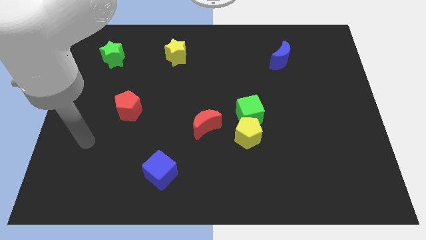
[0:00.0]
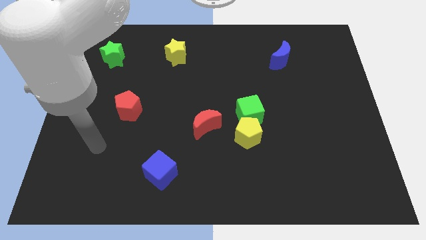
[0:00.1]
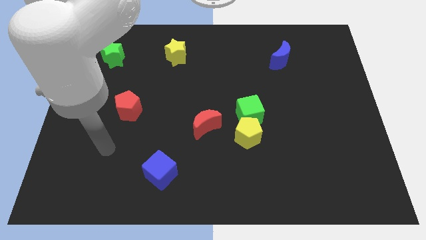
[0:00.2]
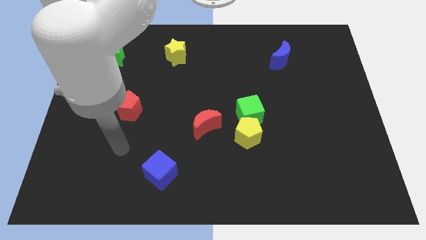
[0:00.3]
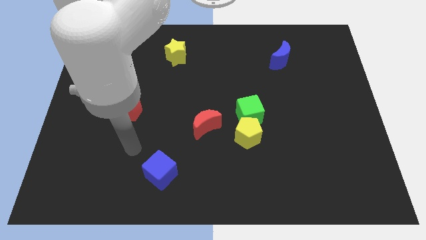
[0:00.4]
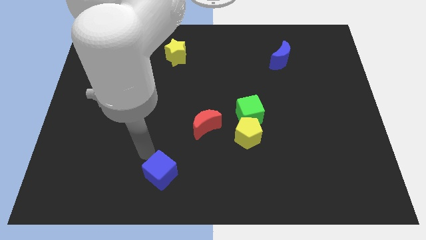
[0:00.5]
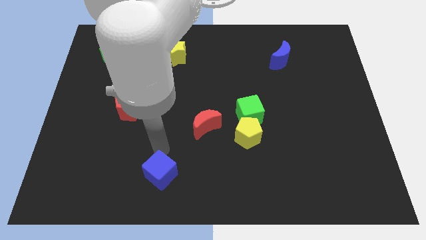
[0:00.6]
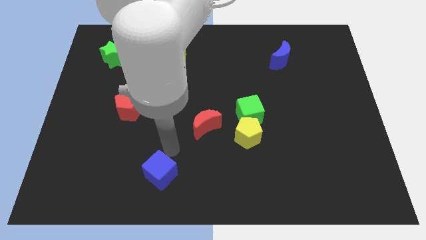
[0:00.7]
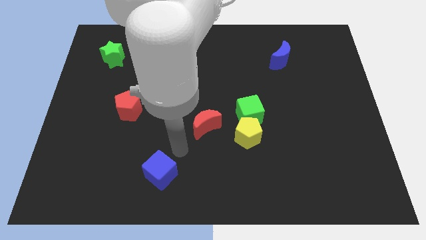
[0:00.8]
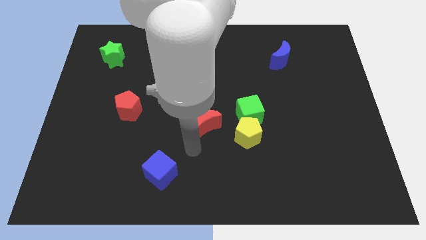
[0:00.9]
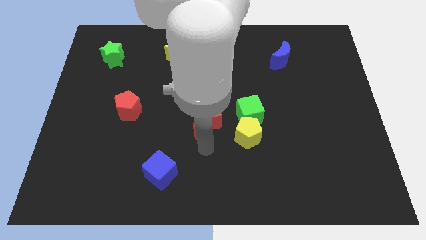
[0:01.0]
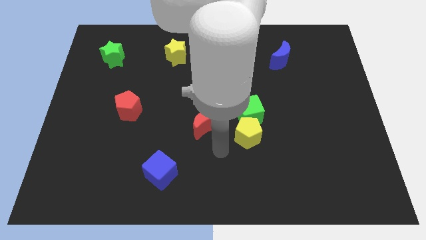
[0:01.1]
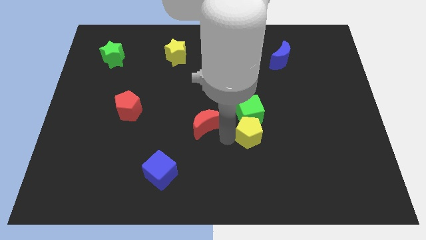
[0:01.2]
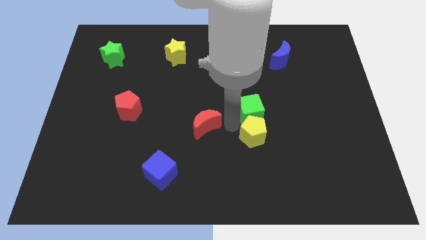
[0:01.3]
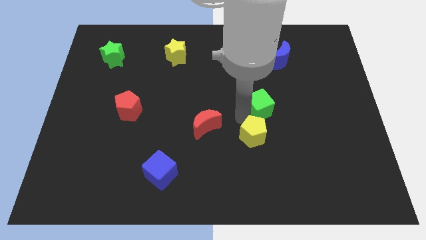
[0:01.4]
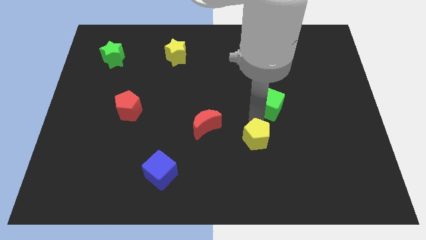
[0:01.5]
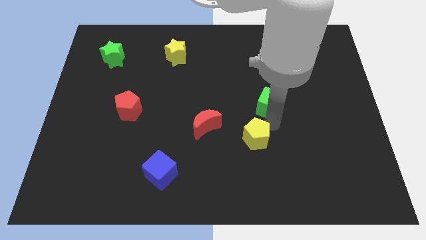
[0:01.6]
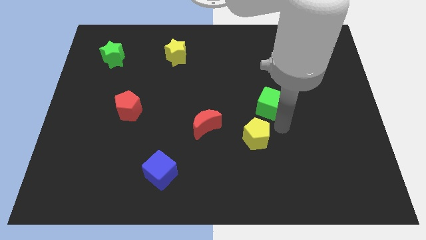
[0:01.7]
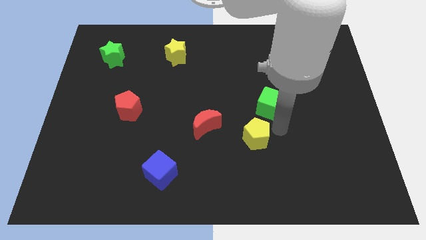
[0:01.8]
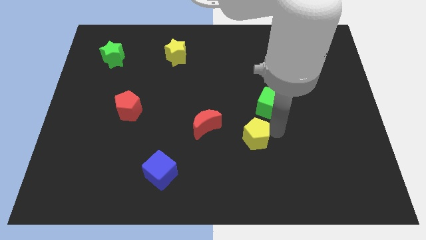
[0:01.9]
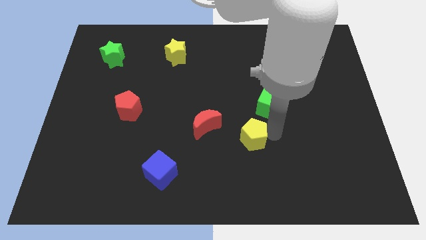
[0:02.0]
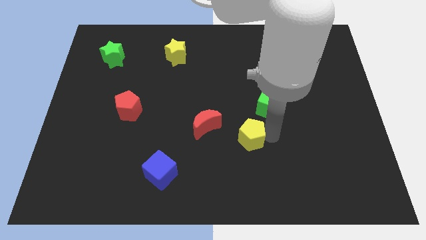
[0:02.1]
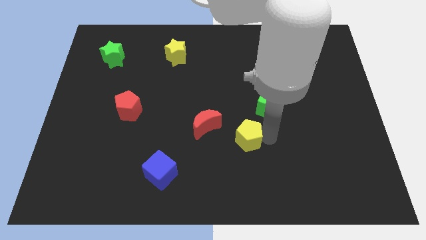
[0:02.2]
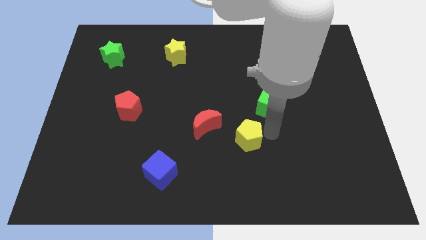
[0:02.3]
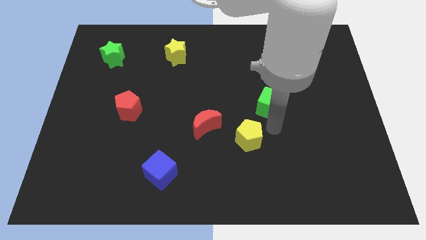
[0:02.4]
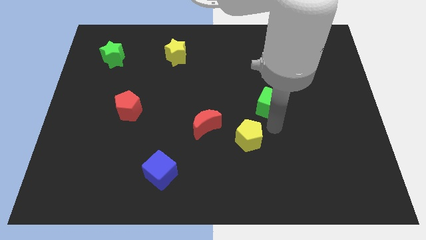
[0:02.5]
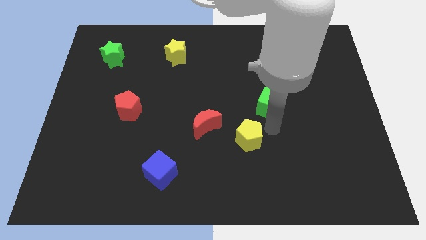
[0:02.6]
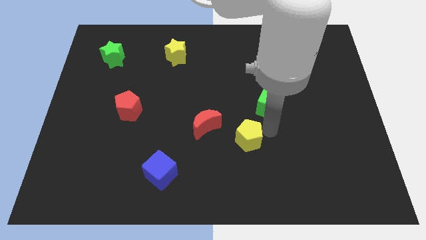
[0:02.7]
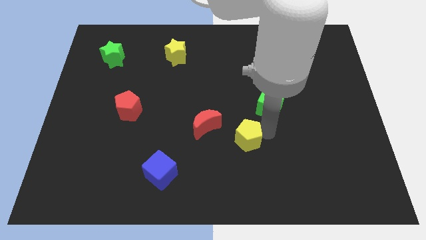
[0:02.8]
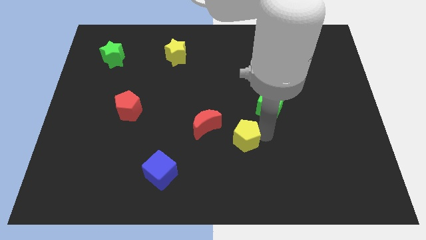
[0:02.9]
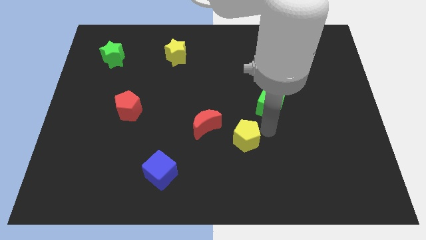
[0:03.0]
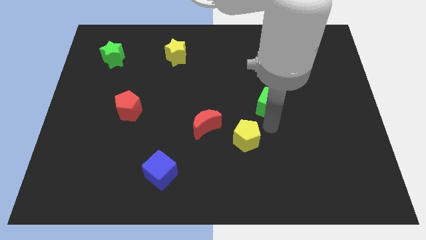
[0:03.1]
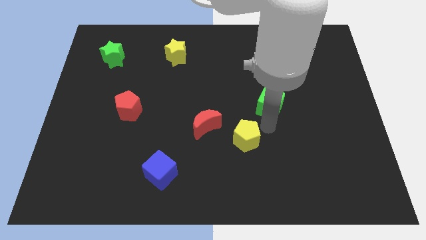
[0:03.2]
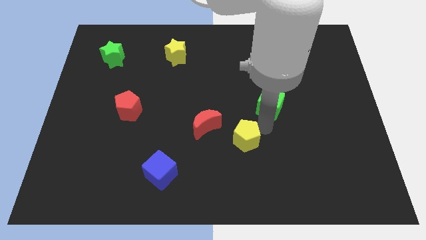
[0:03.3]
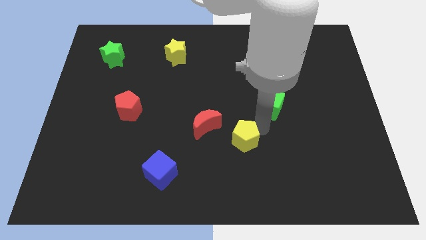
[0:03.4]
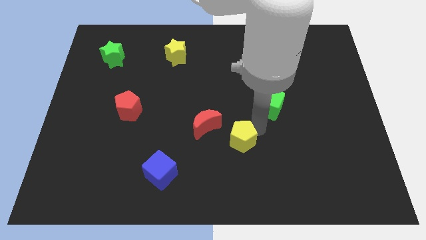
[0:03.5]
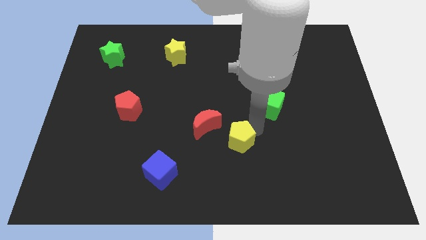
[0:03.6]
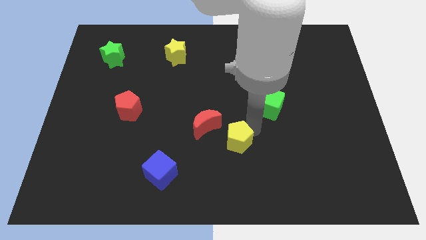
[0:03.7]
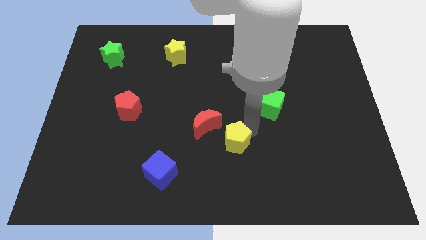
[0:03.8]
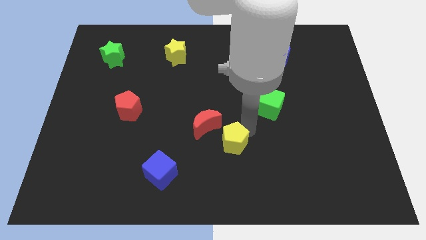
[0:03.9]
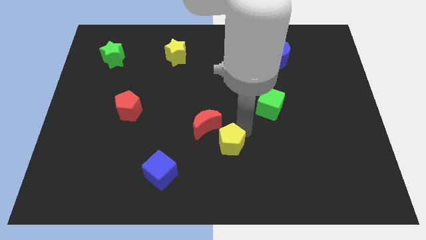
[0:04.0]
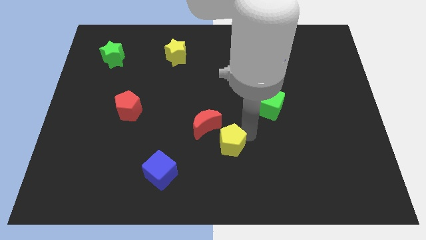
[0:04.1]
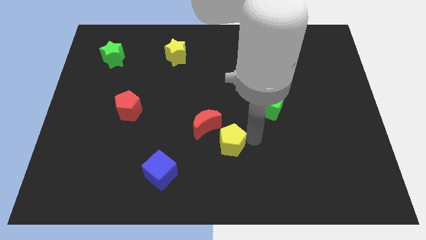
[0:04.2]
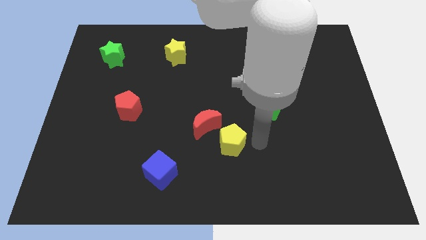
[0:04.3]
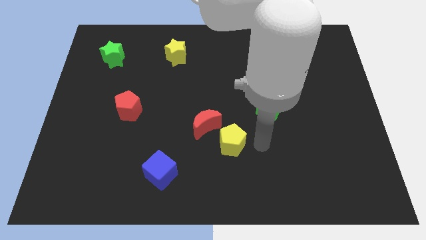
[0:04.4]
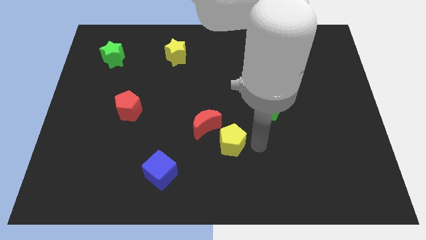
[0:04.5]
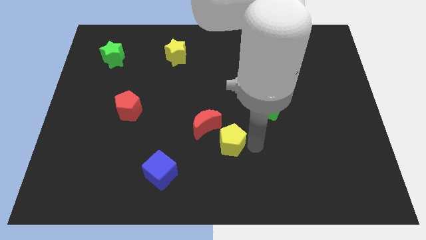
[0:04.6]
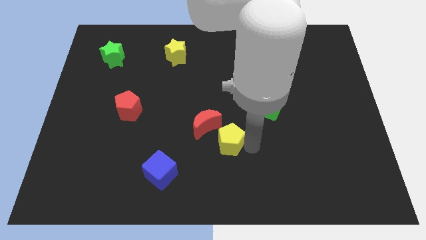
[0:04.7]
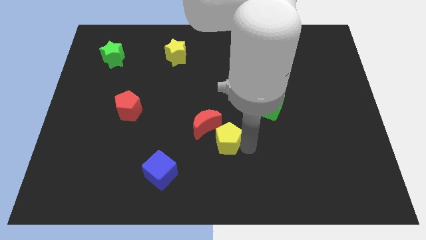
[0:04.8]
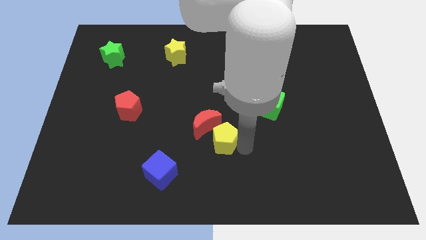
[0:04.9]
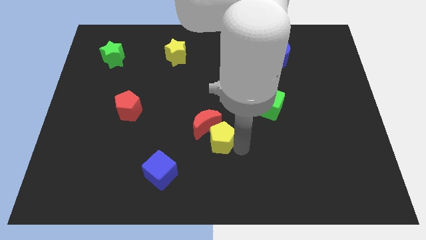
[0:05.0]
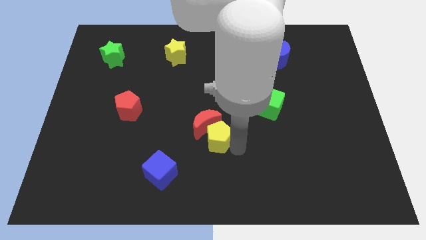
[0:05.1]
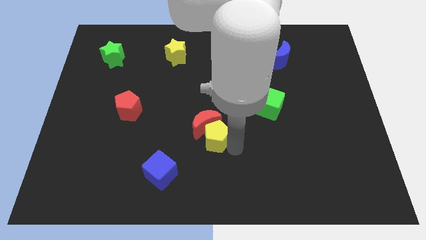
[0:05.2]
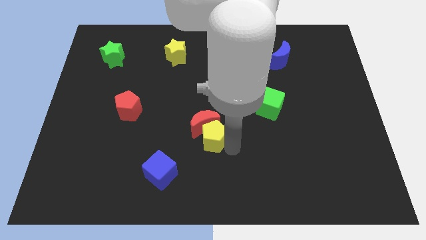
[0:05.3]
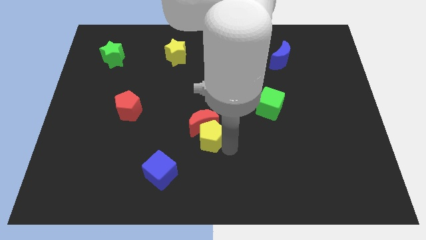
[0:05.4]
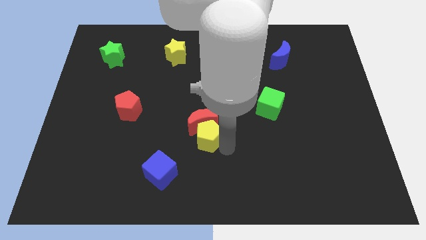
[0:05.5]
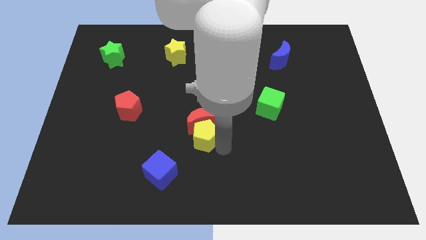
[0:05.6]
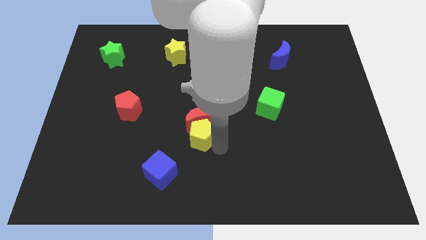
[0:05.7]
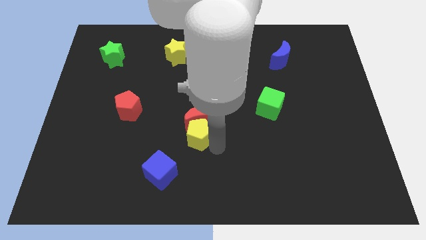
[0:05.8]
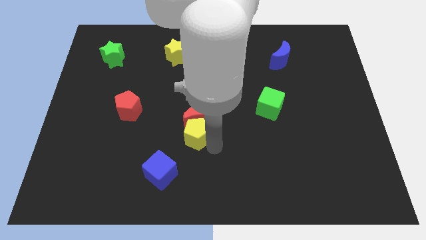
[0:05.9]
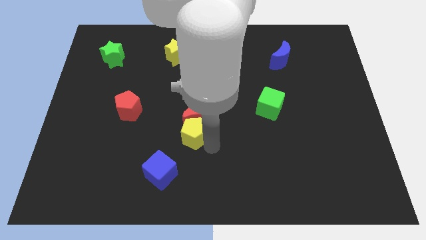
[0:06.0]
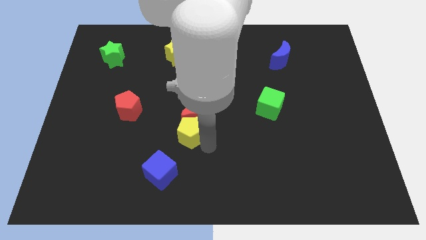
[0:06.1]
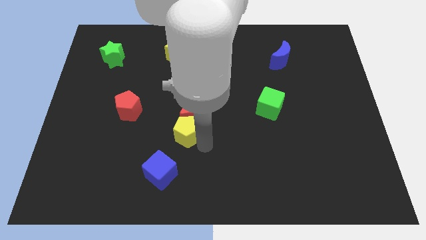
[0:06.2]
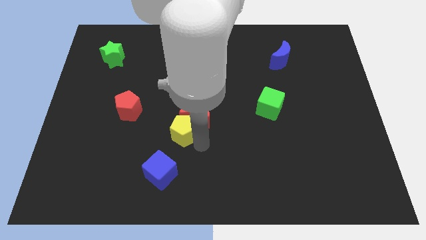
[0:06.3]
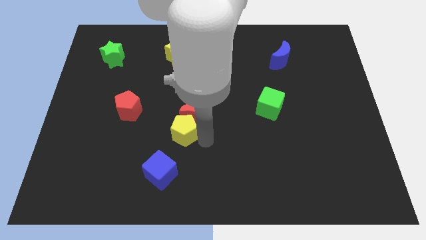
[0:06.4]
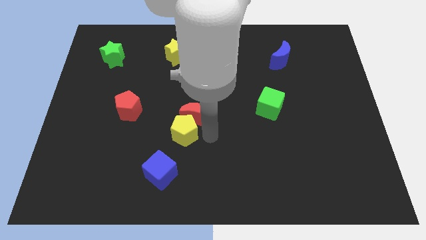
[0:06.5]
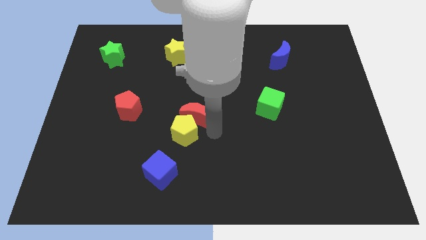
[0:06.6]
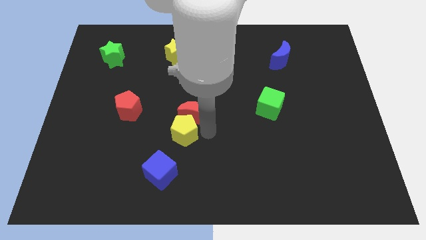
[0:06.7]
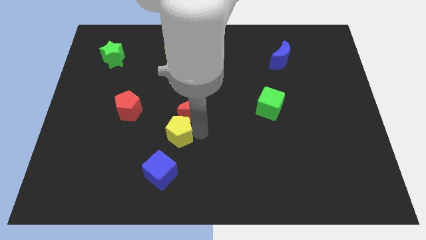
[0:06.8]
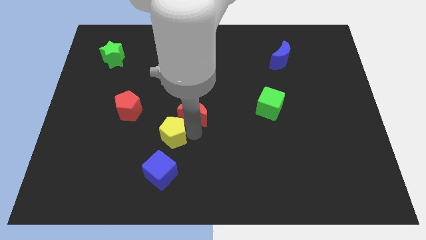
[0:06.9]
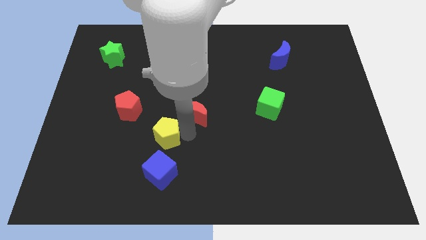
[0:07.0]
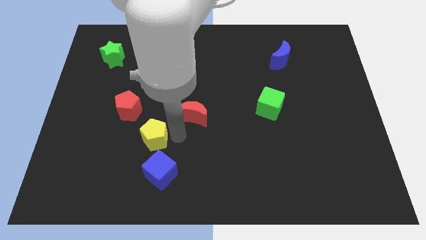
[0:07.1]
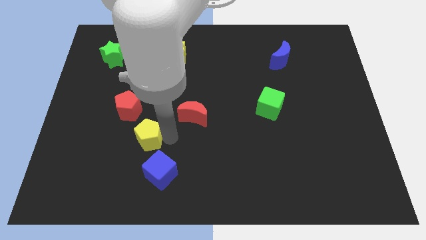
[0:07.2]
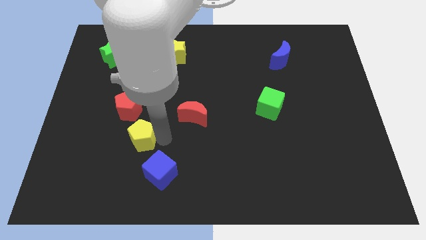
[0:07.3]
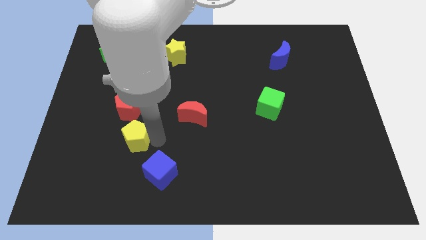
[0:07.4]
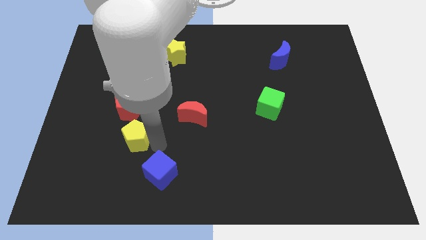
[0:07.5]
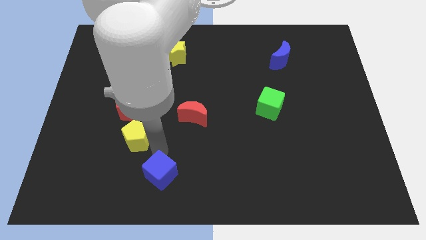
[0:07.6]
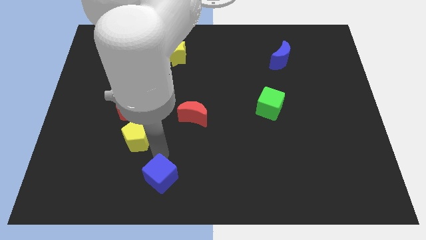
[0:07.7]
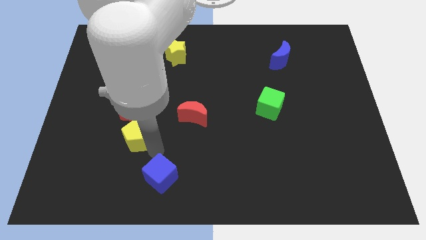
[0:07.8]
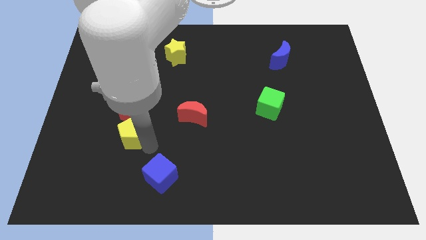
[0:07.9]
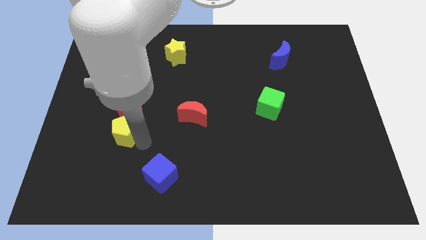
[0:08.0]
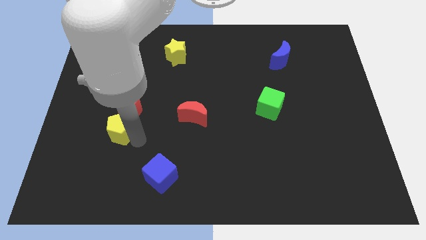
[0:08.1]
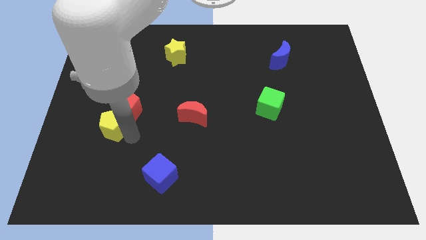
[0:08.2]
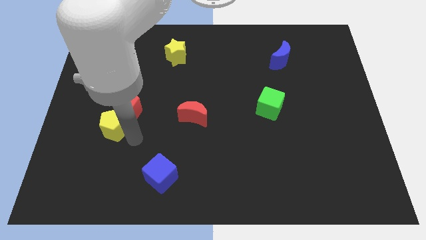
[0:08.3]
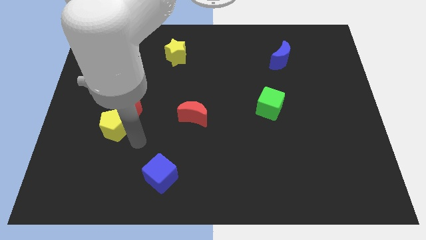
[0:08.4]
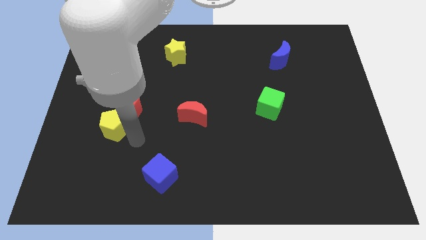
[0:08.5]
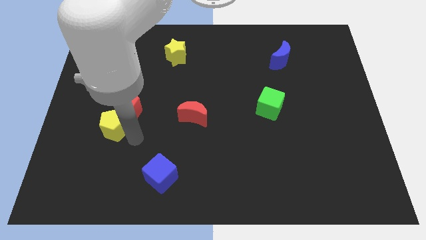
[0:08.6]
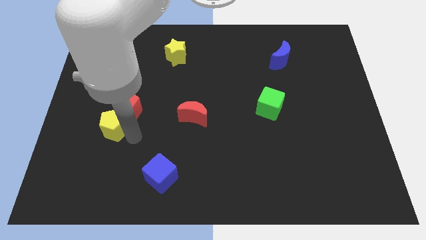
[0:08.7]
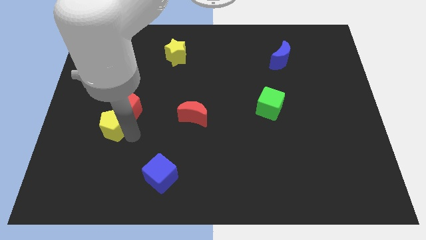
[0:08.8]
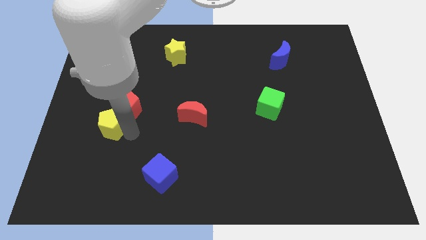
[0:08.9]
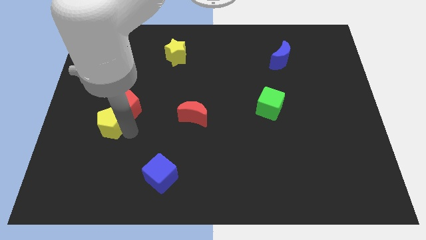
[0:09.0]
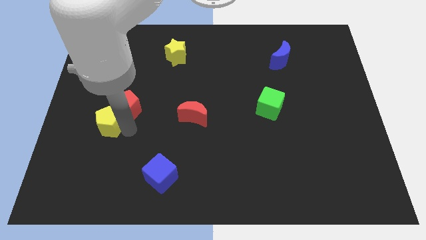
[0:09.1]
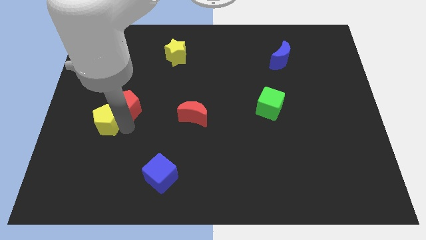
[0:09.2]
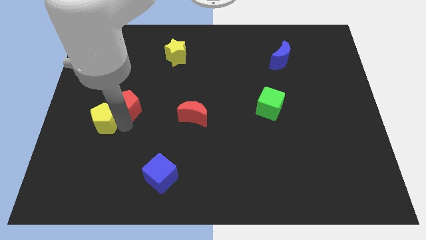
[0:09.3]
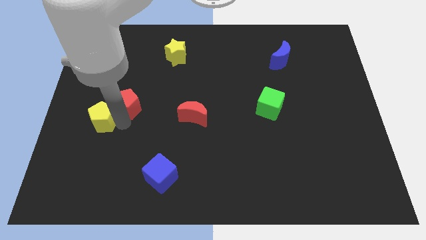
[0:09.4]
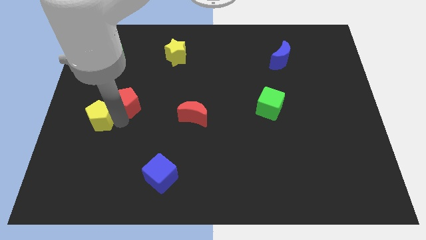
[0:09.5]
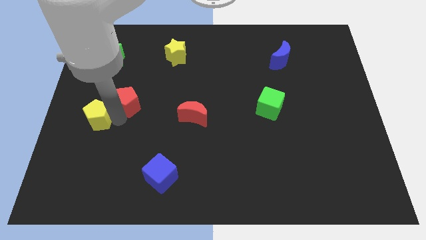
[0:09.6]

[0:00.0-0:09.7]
push the yellow pentagon to the center left
